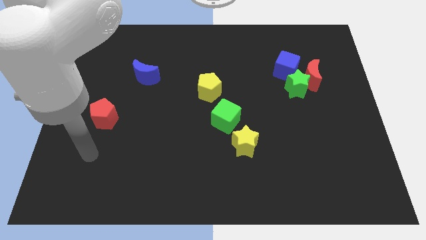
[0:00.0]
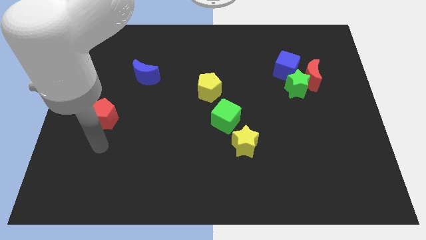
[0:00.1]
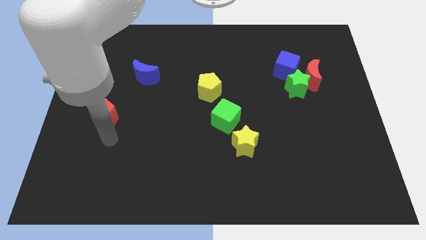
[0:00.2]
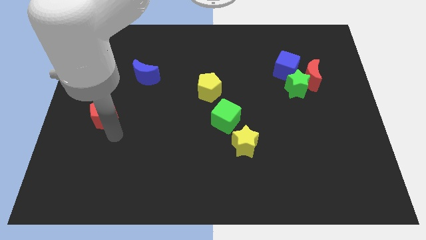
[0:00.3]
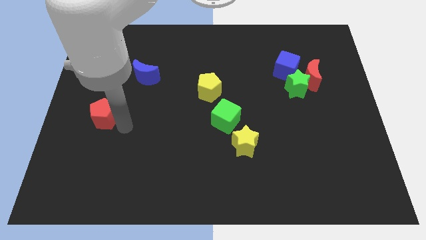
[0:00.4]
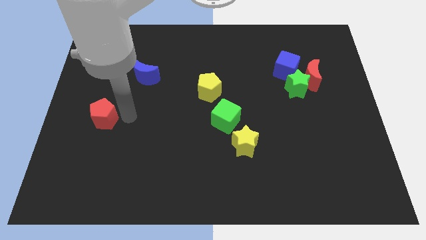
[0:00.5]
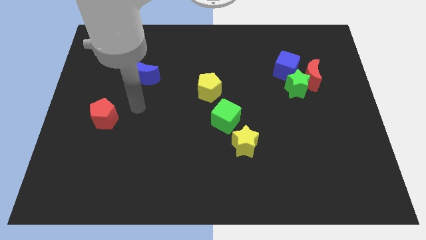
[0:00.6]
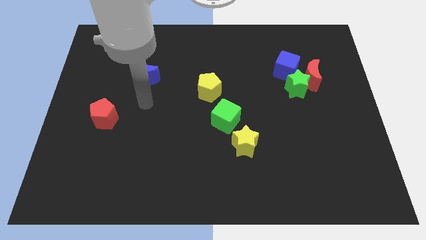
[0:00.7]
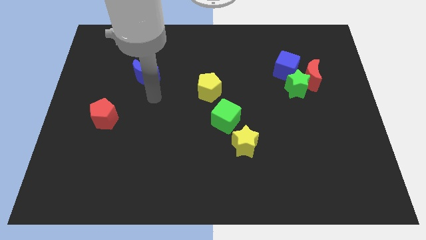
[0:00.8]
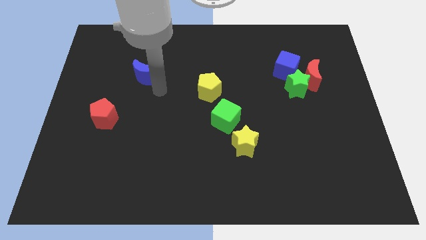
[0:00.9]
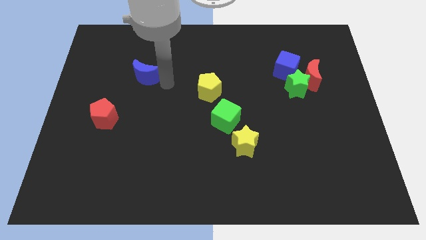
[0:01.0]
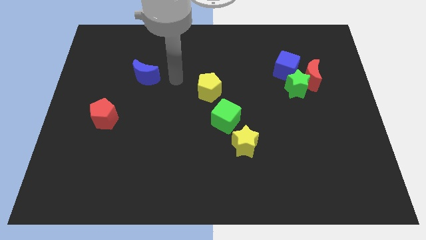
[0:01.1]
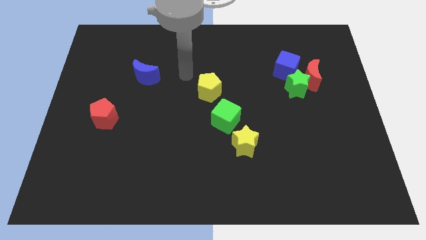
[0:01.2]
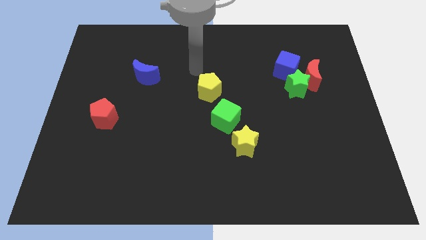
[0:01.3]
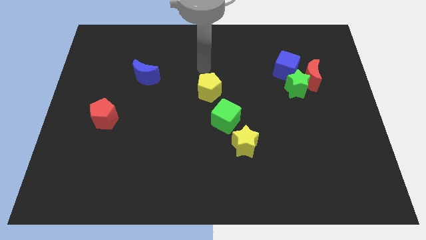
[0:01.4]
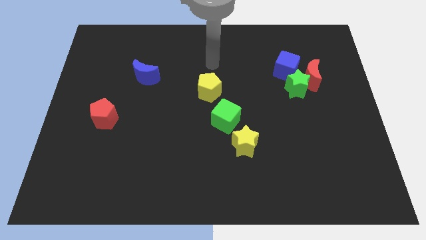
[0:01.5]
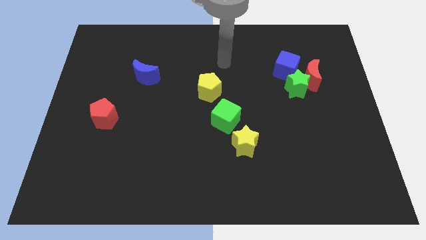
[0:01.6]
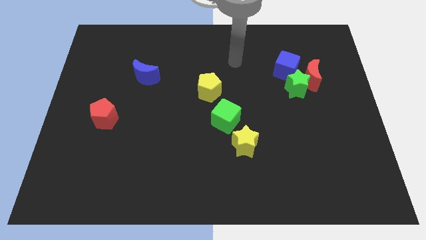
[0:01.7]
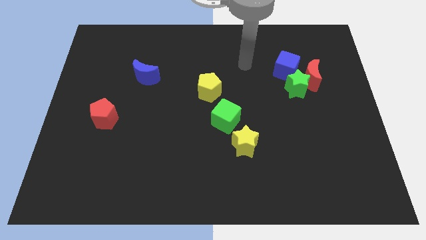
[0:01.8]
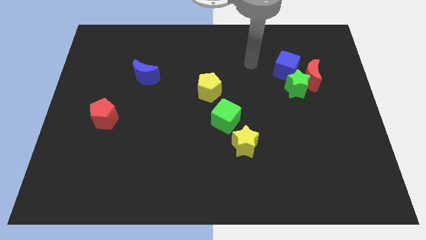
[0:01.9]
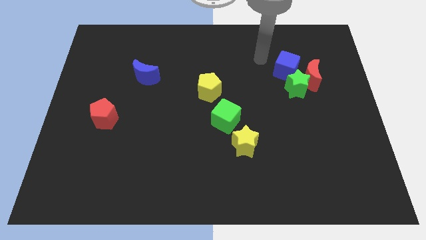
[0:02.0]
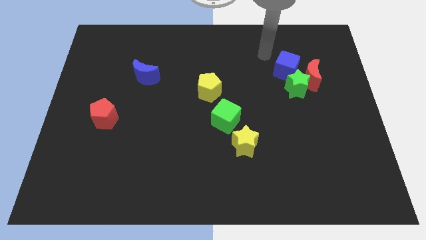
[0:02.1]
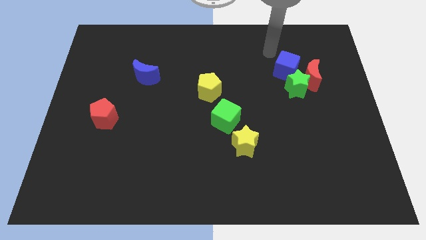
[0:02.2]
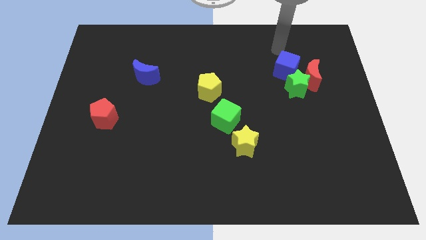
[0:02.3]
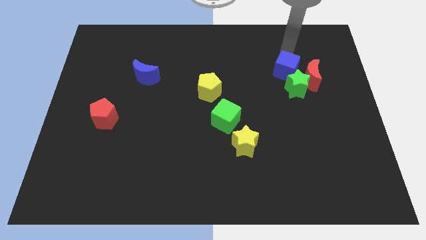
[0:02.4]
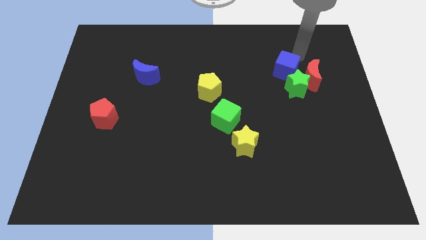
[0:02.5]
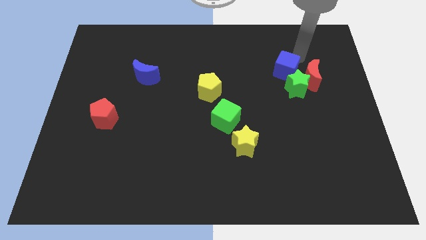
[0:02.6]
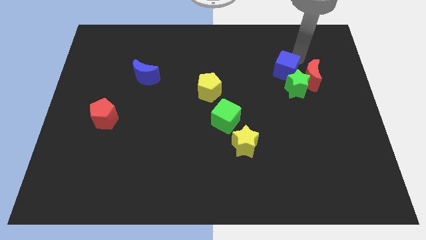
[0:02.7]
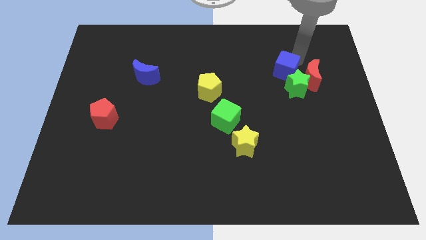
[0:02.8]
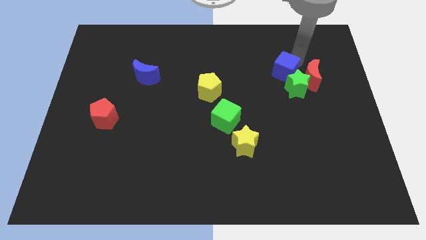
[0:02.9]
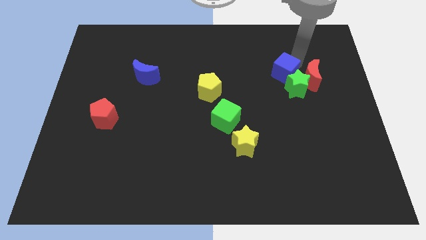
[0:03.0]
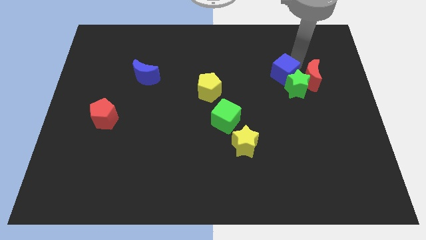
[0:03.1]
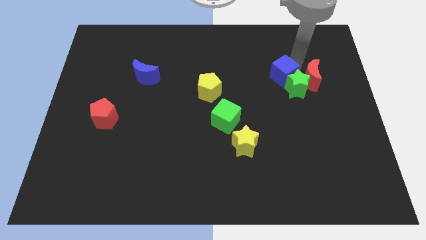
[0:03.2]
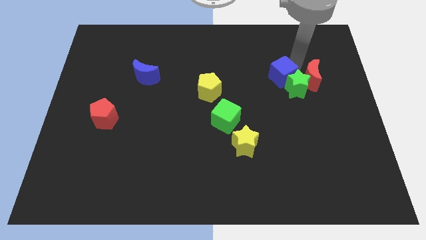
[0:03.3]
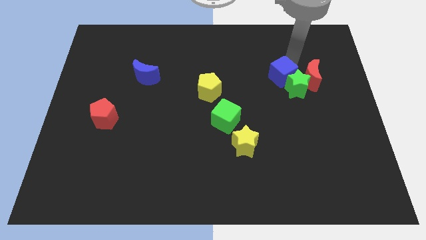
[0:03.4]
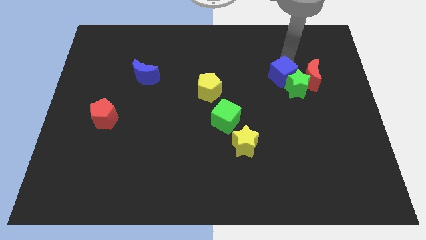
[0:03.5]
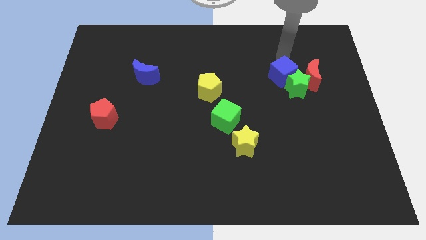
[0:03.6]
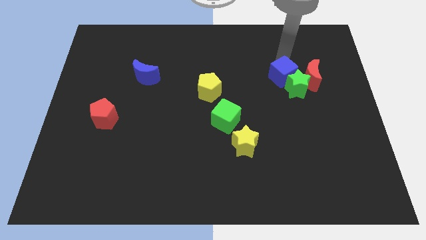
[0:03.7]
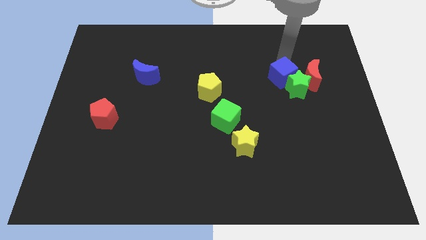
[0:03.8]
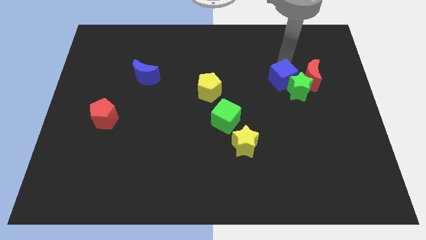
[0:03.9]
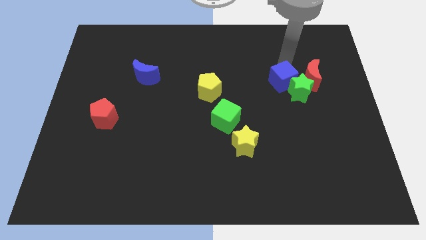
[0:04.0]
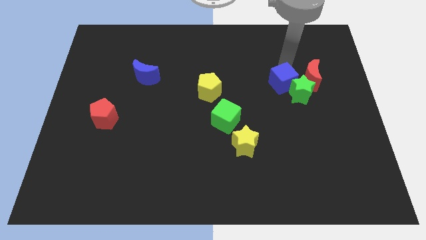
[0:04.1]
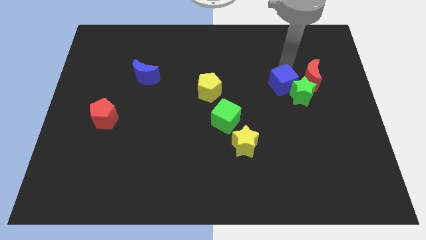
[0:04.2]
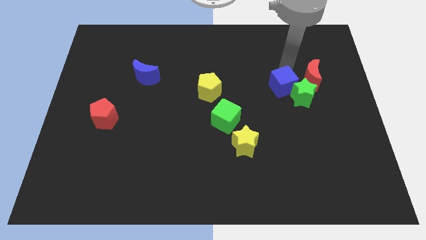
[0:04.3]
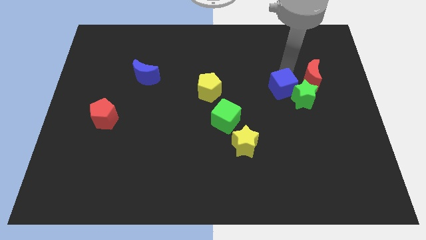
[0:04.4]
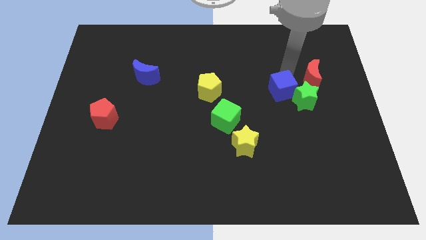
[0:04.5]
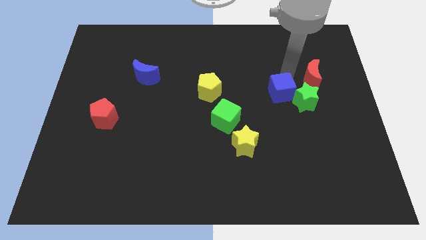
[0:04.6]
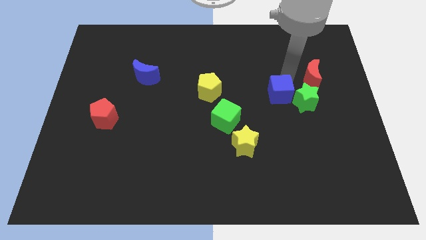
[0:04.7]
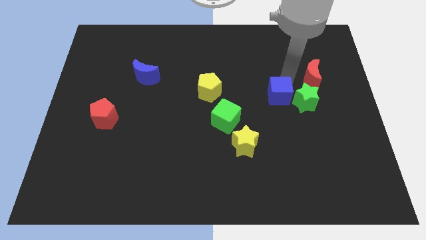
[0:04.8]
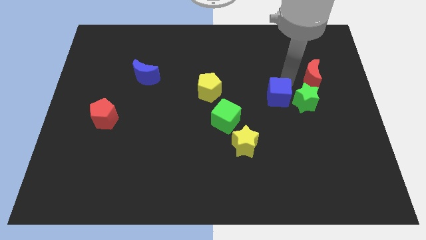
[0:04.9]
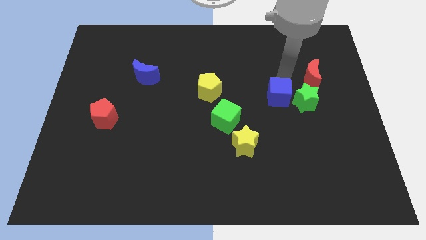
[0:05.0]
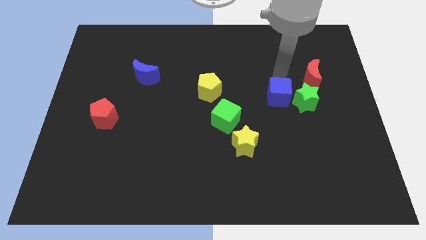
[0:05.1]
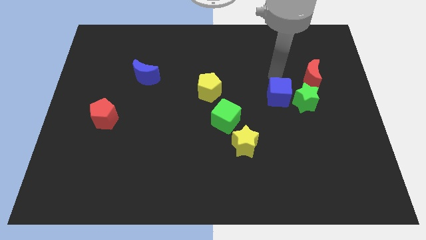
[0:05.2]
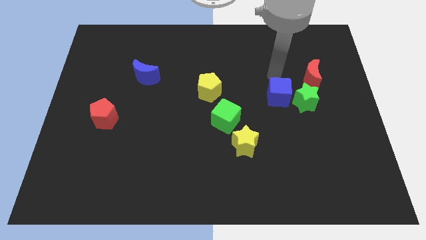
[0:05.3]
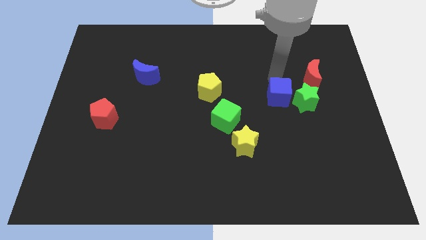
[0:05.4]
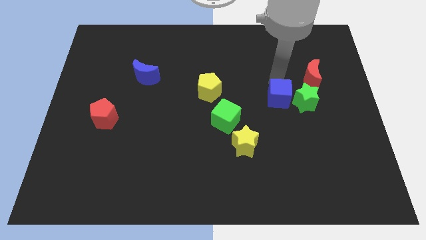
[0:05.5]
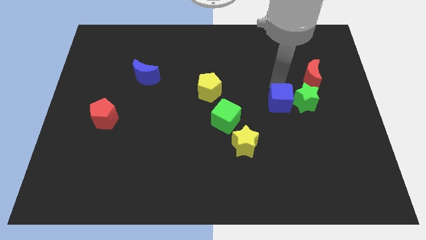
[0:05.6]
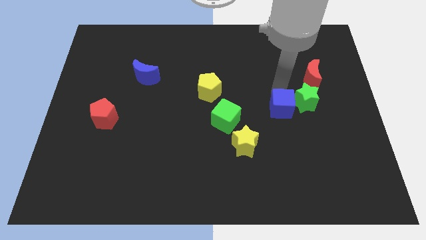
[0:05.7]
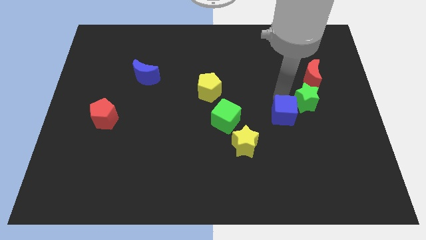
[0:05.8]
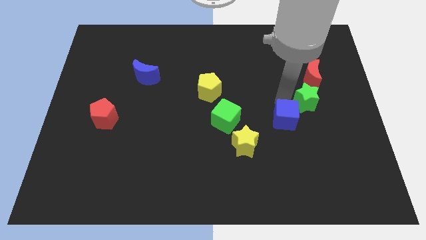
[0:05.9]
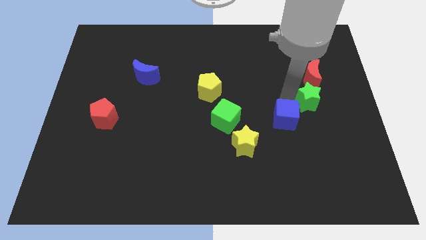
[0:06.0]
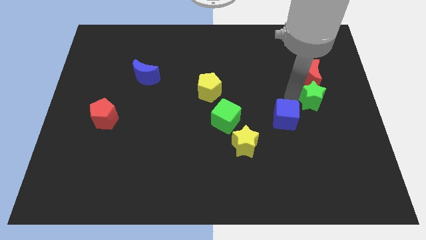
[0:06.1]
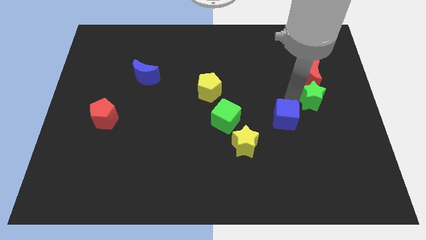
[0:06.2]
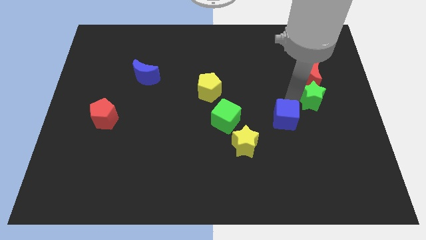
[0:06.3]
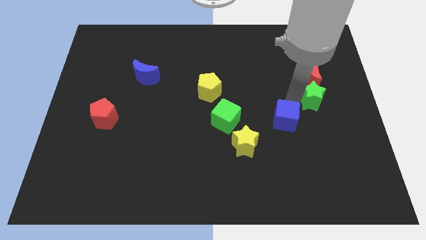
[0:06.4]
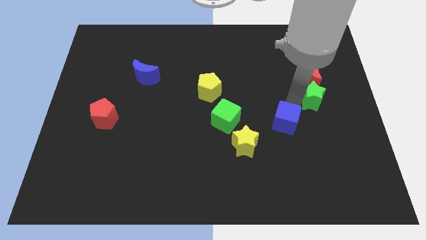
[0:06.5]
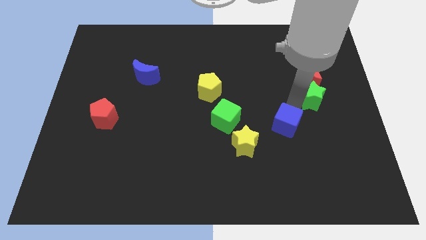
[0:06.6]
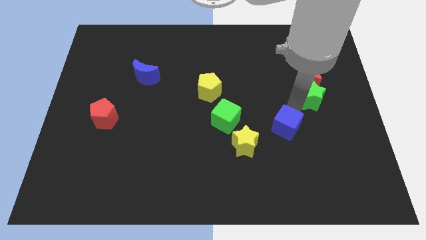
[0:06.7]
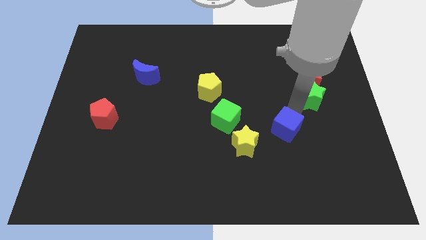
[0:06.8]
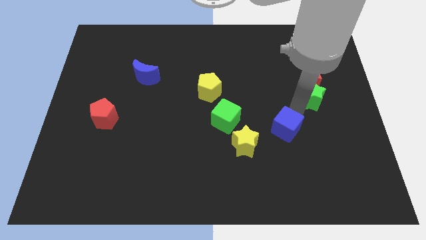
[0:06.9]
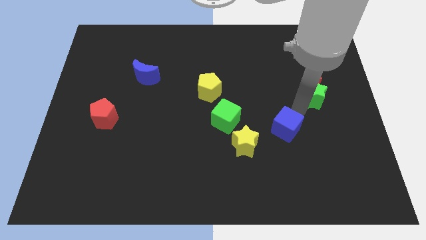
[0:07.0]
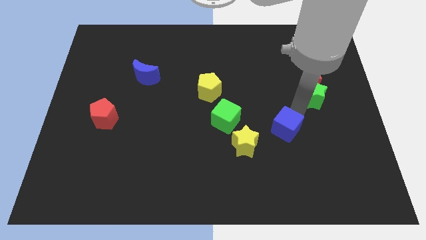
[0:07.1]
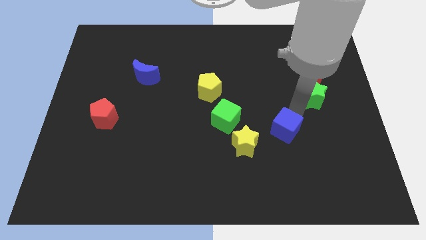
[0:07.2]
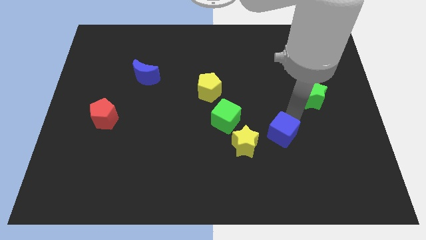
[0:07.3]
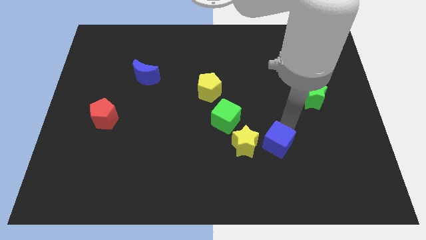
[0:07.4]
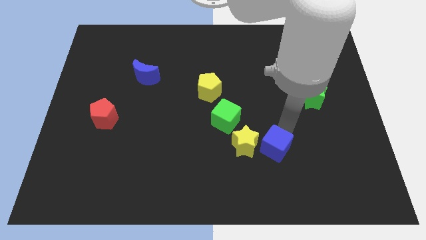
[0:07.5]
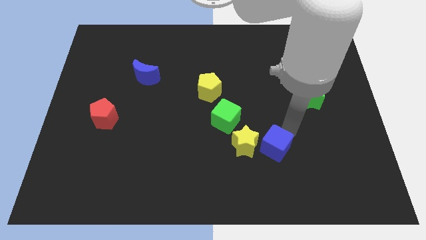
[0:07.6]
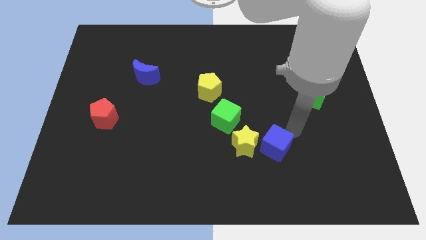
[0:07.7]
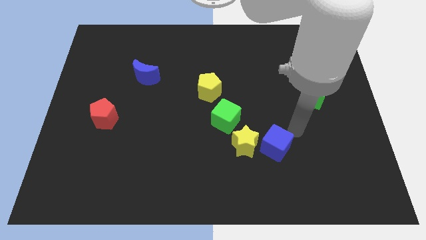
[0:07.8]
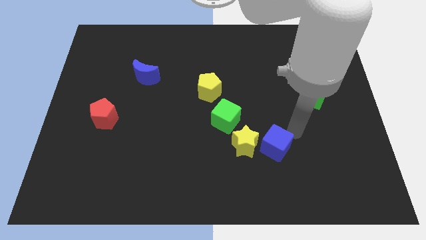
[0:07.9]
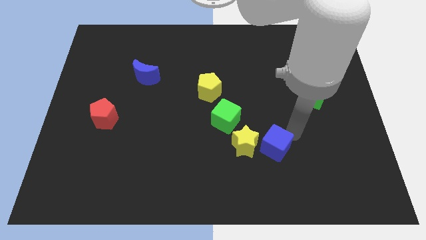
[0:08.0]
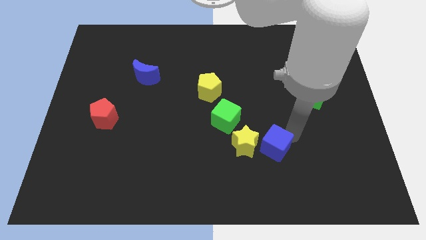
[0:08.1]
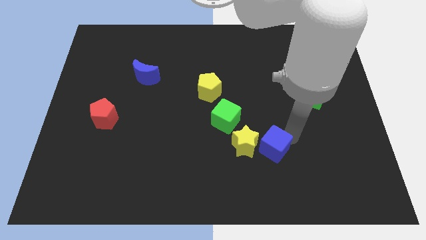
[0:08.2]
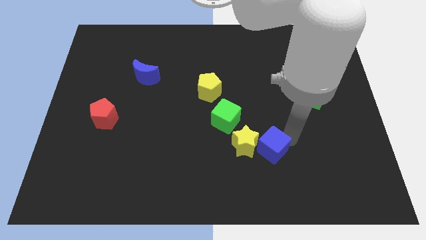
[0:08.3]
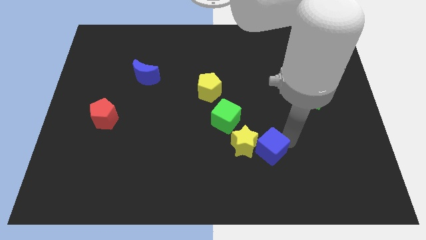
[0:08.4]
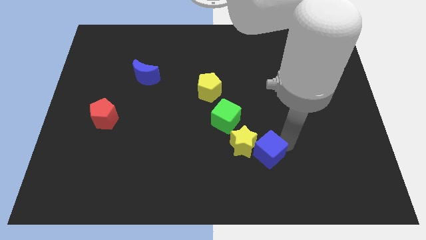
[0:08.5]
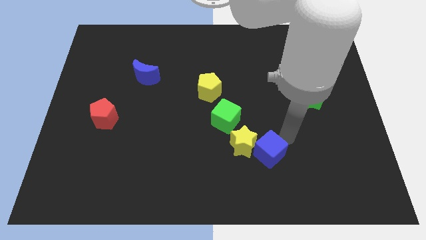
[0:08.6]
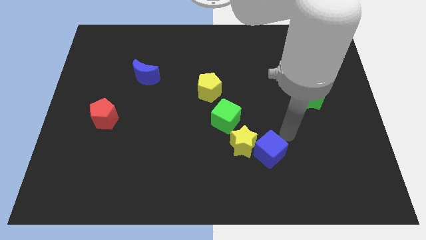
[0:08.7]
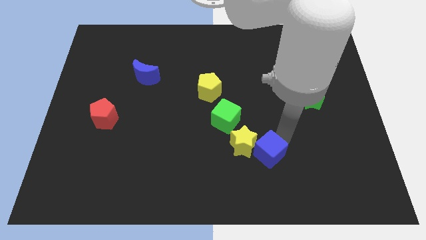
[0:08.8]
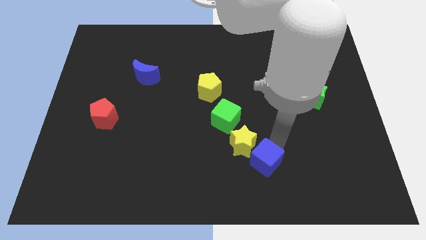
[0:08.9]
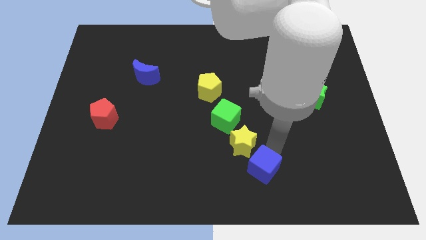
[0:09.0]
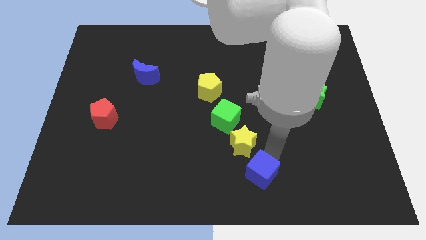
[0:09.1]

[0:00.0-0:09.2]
move the blue cube to the bottom
